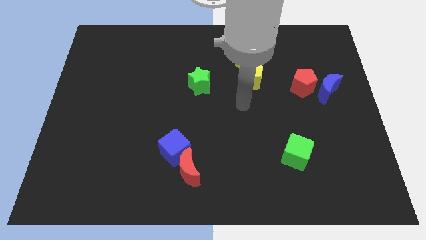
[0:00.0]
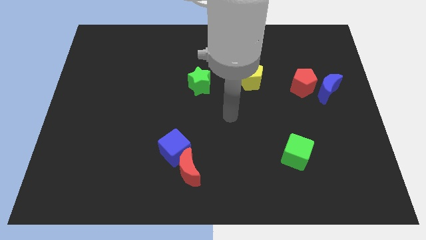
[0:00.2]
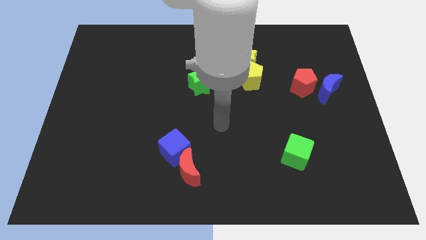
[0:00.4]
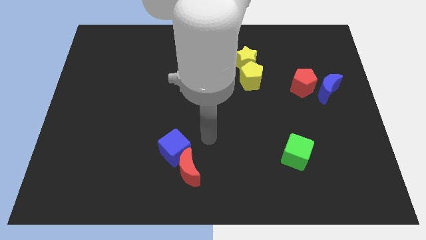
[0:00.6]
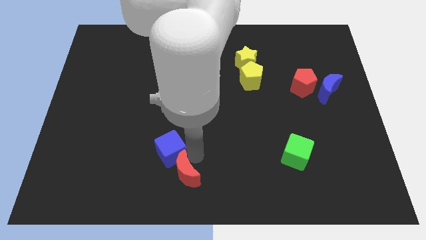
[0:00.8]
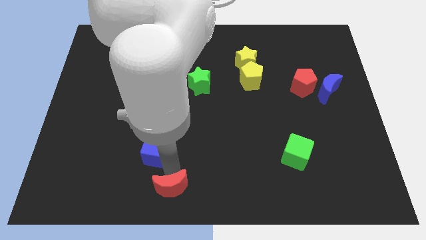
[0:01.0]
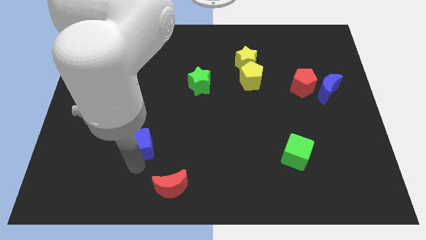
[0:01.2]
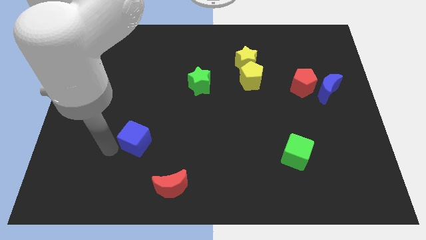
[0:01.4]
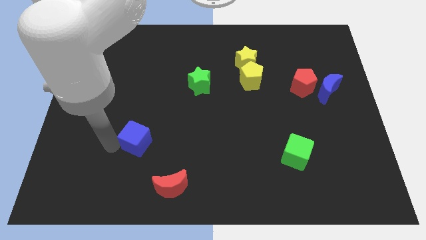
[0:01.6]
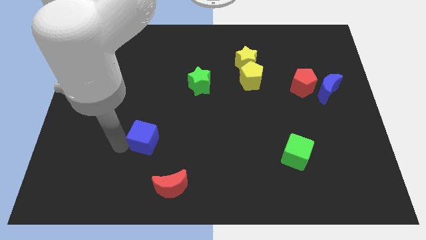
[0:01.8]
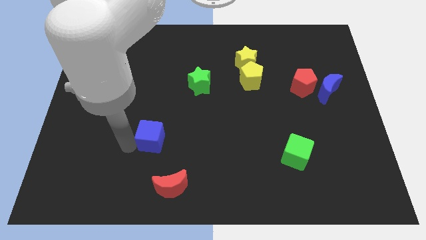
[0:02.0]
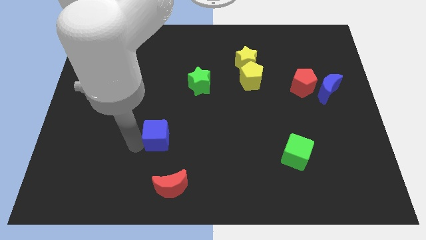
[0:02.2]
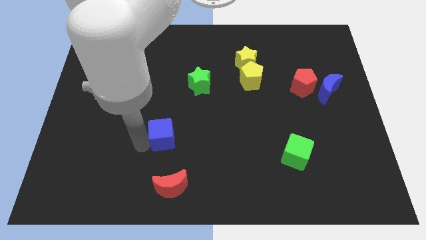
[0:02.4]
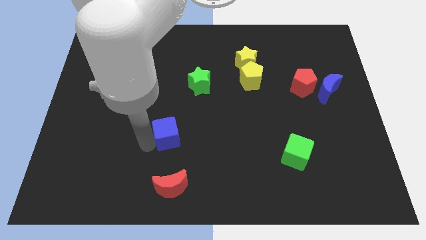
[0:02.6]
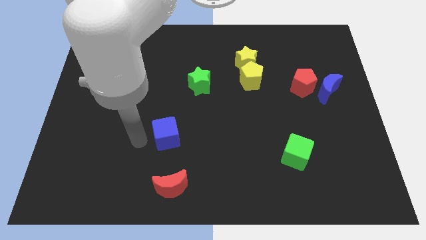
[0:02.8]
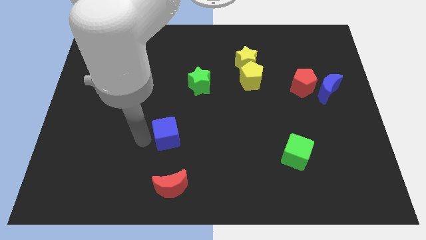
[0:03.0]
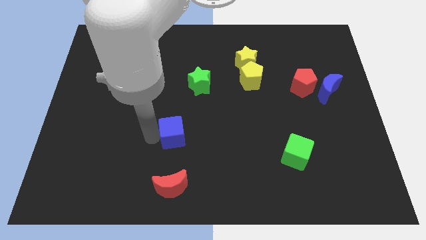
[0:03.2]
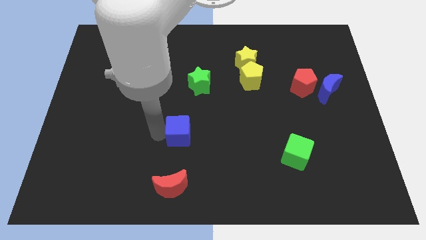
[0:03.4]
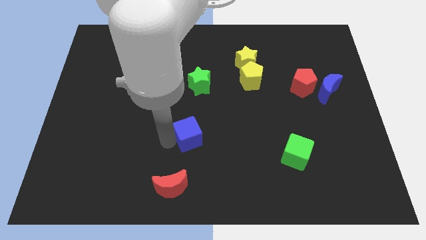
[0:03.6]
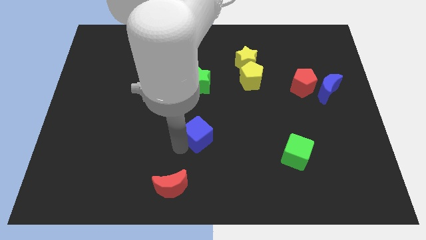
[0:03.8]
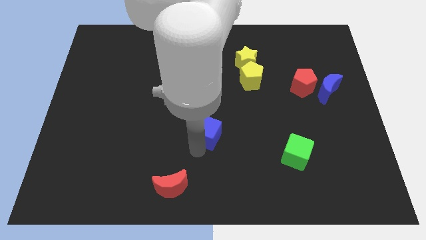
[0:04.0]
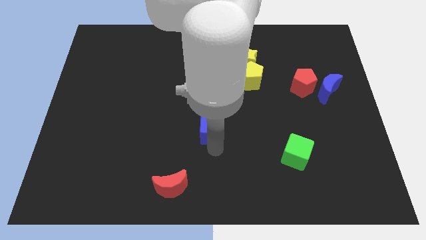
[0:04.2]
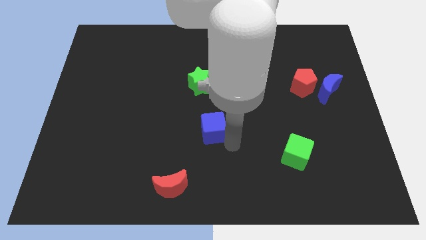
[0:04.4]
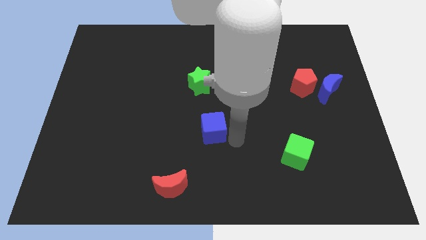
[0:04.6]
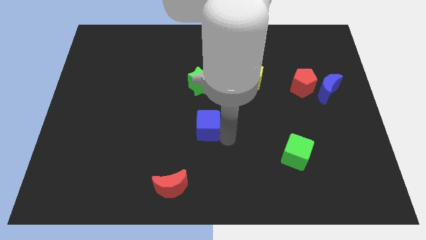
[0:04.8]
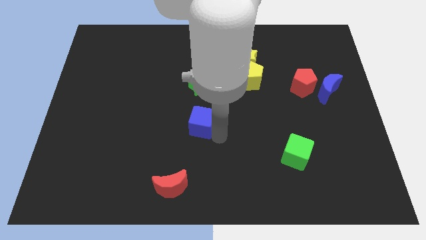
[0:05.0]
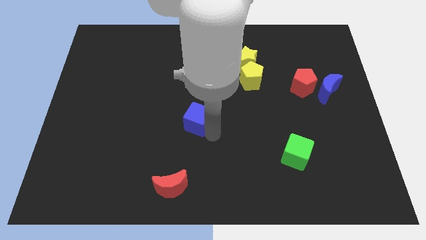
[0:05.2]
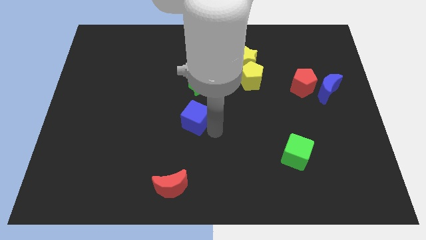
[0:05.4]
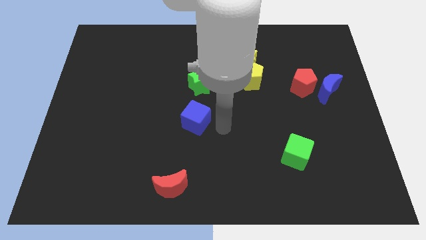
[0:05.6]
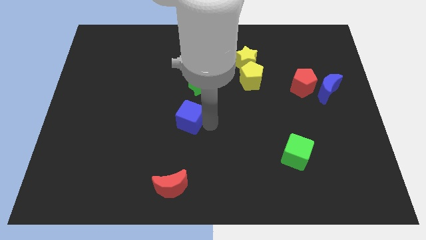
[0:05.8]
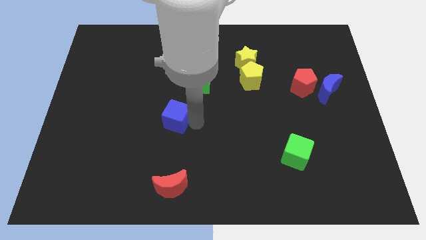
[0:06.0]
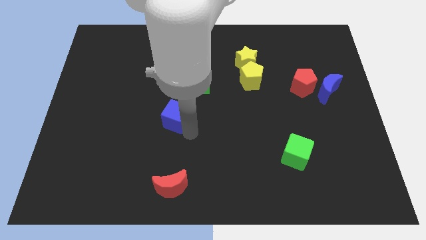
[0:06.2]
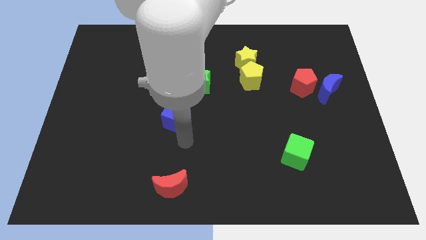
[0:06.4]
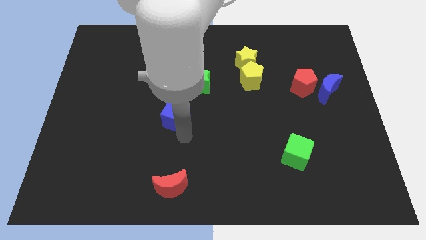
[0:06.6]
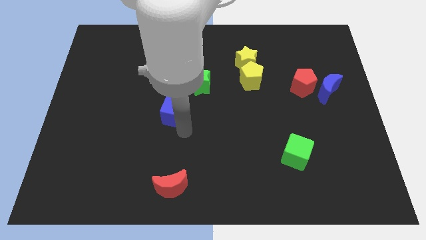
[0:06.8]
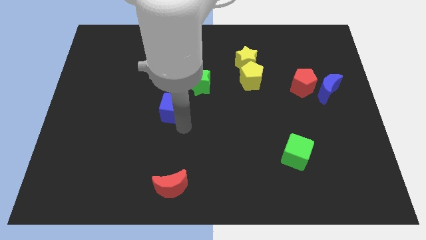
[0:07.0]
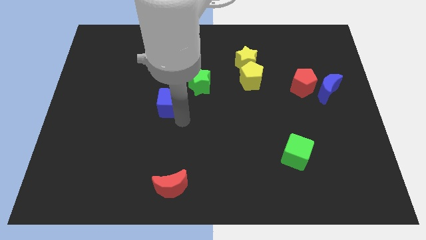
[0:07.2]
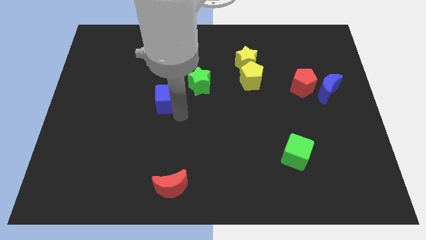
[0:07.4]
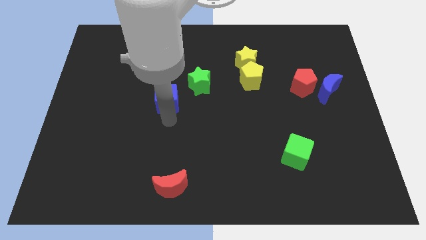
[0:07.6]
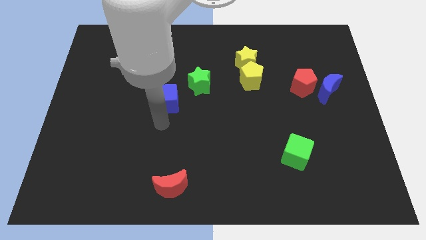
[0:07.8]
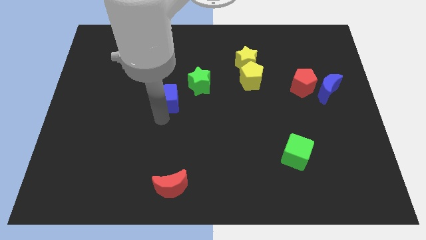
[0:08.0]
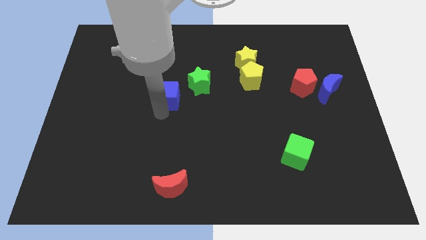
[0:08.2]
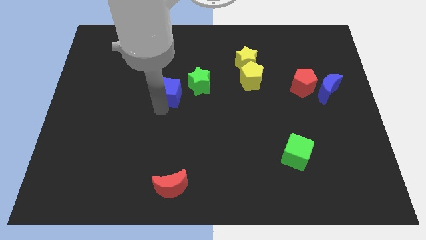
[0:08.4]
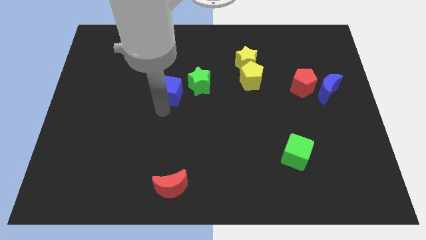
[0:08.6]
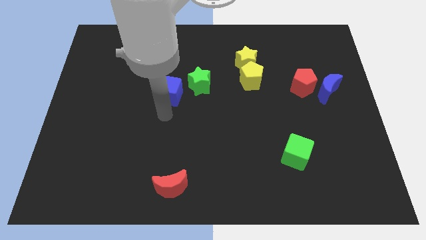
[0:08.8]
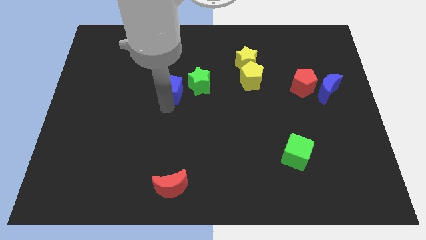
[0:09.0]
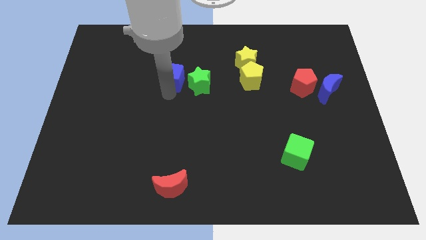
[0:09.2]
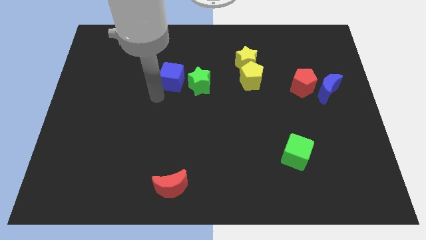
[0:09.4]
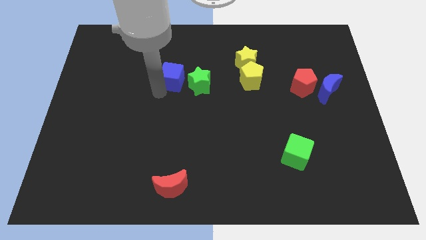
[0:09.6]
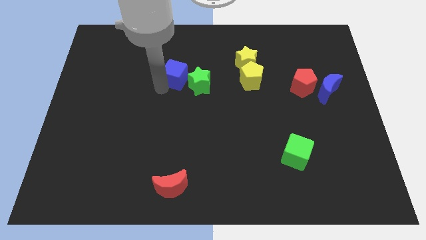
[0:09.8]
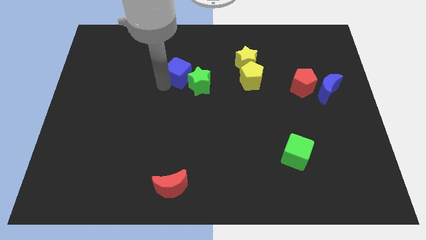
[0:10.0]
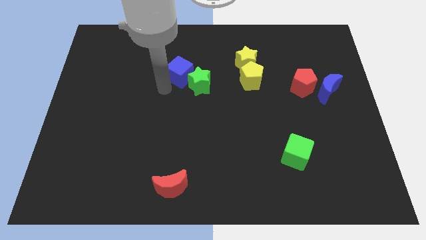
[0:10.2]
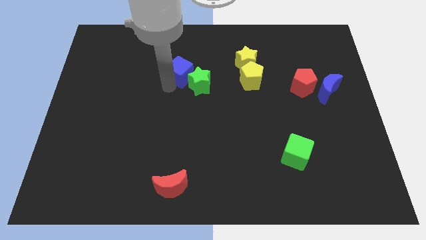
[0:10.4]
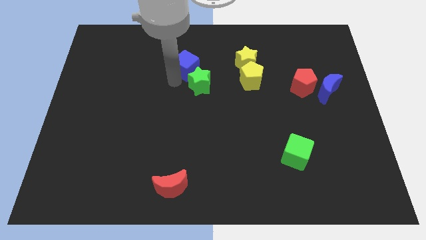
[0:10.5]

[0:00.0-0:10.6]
move the blue cube to the top of the green star

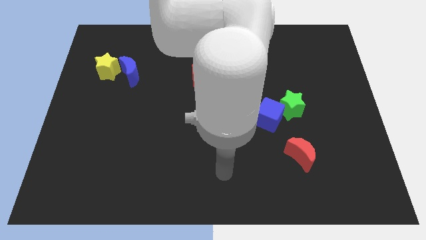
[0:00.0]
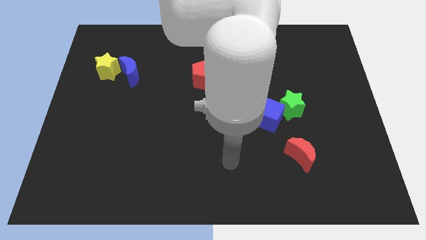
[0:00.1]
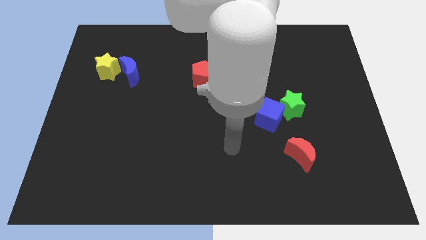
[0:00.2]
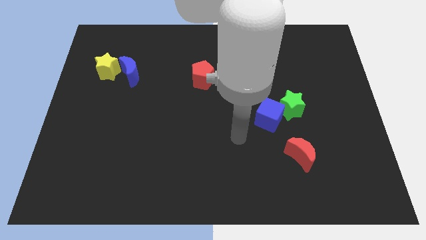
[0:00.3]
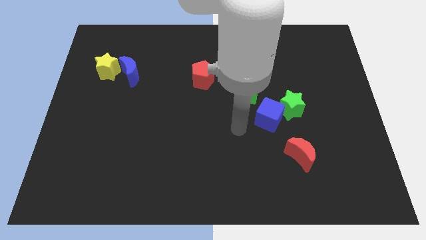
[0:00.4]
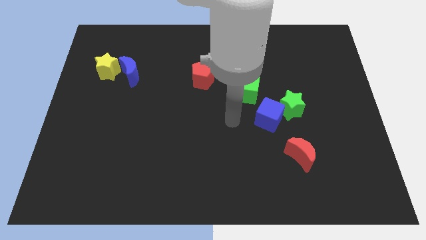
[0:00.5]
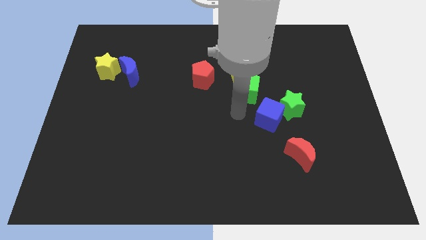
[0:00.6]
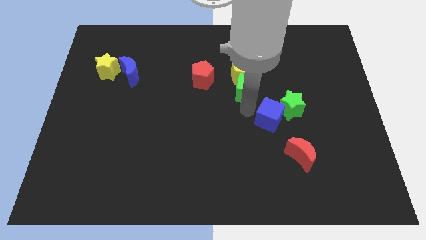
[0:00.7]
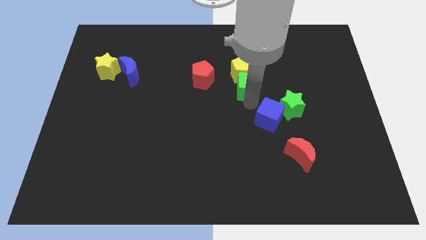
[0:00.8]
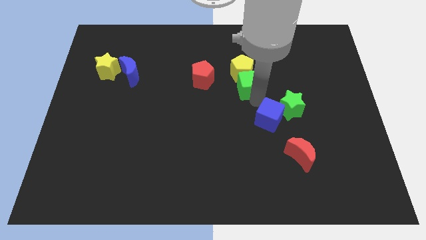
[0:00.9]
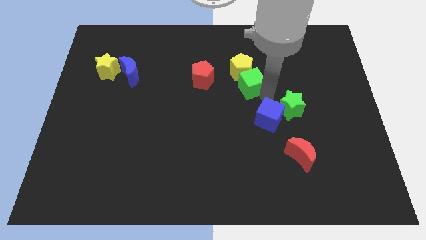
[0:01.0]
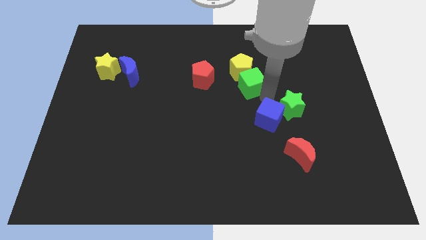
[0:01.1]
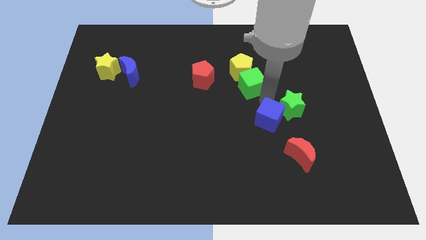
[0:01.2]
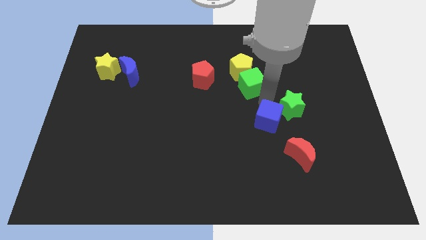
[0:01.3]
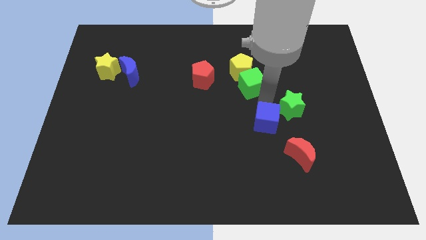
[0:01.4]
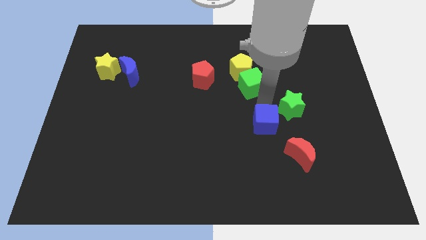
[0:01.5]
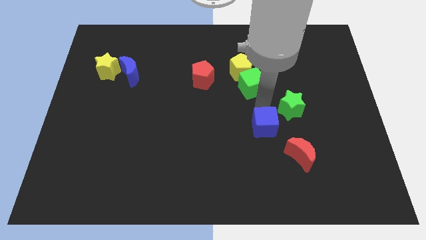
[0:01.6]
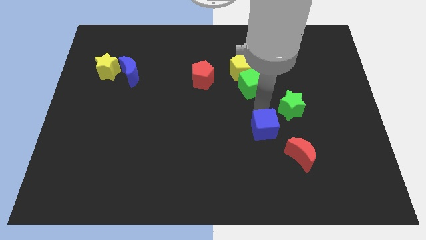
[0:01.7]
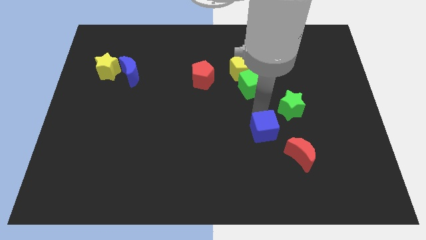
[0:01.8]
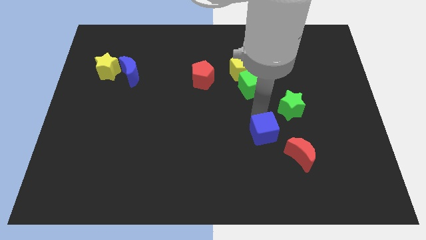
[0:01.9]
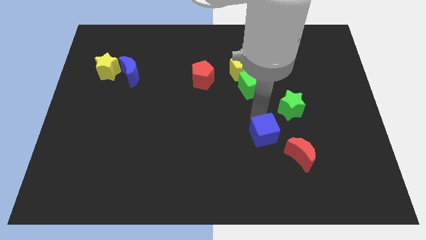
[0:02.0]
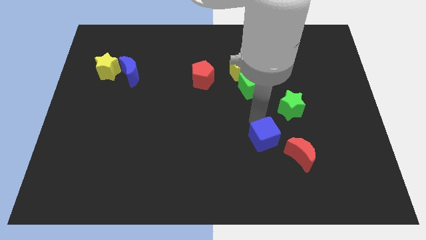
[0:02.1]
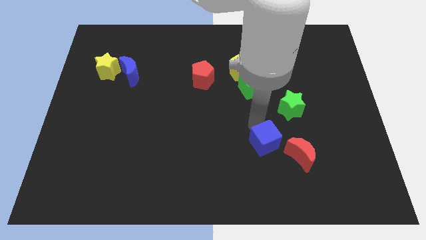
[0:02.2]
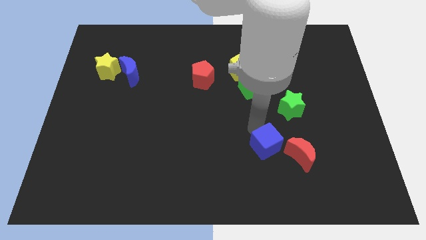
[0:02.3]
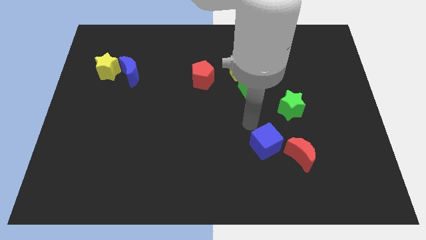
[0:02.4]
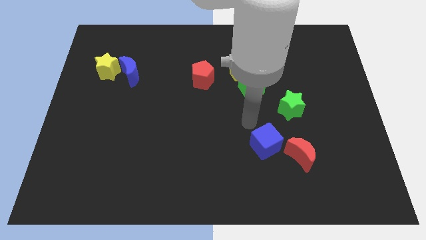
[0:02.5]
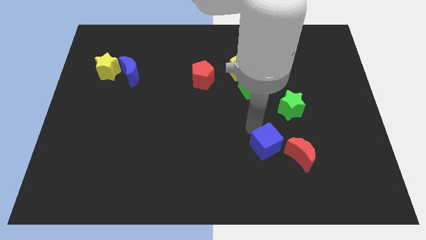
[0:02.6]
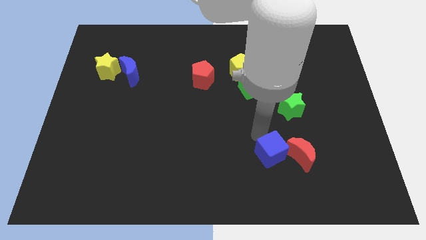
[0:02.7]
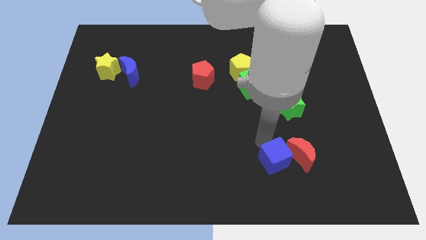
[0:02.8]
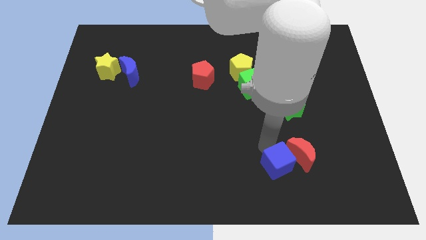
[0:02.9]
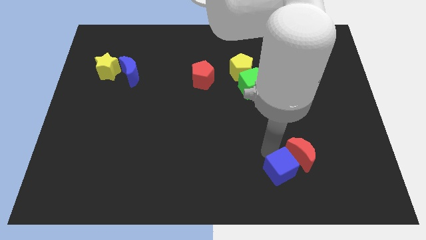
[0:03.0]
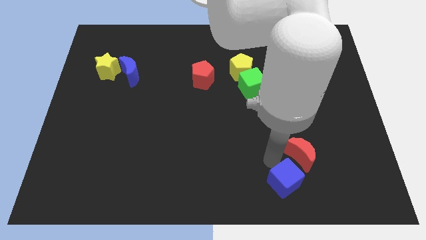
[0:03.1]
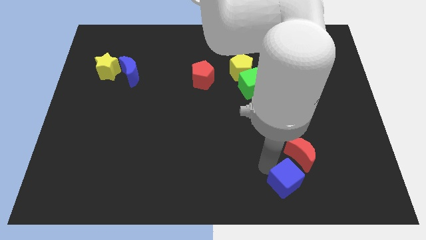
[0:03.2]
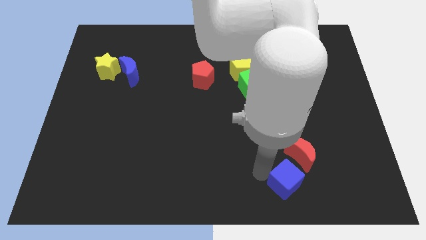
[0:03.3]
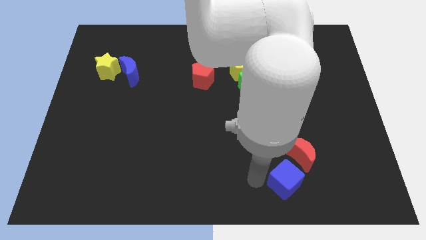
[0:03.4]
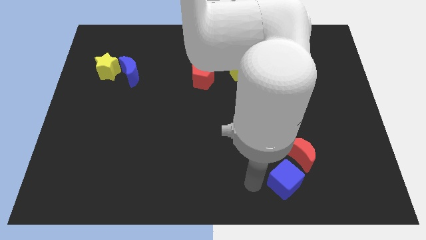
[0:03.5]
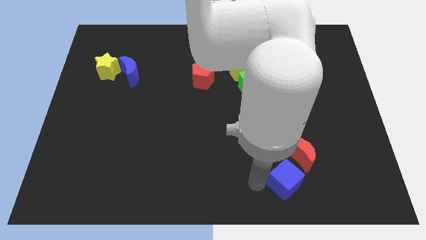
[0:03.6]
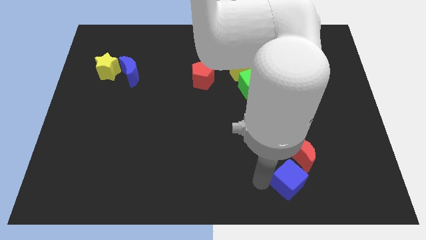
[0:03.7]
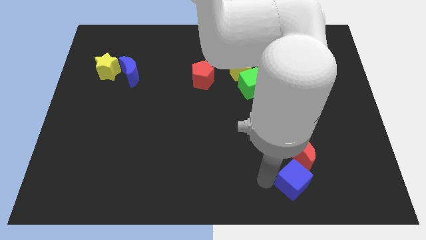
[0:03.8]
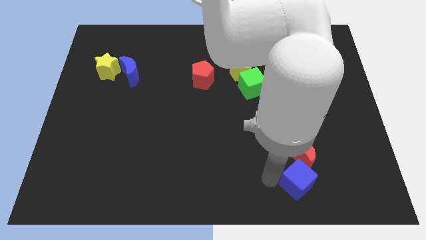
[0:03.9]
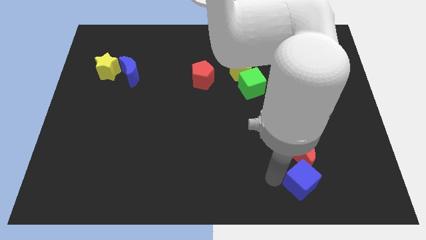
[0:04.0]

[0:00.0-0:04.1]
slide the blue cube diagonally down and to the right of the red moon
